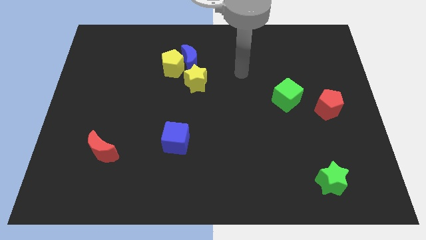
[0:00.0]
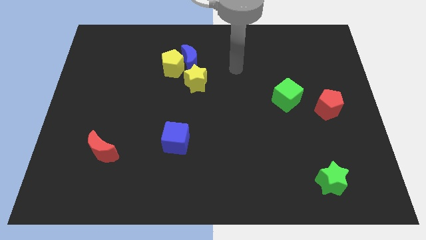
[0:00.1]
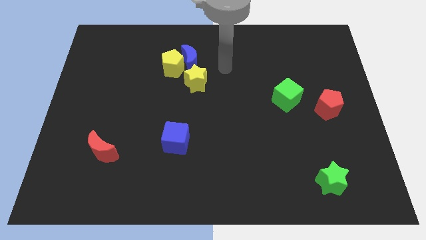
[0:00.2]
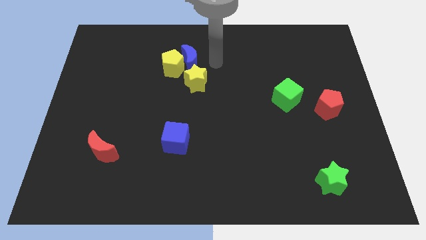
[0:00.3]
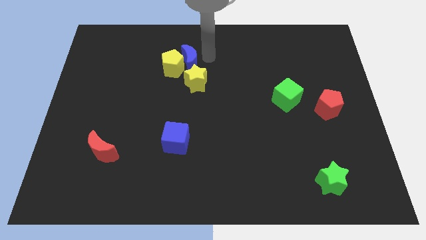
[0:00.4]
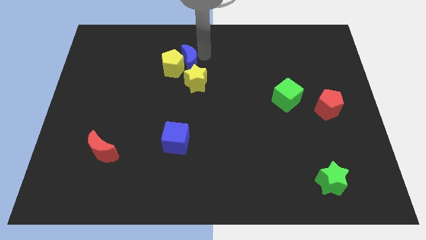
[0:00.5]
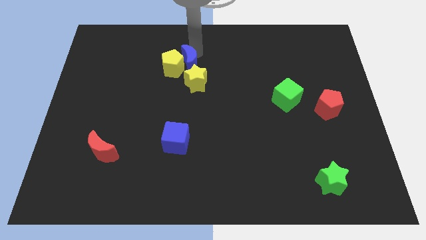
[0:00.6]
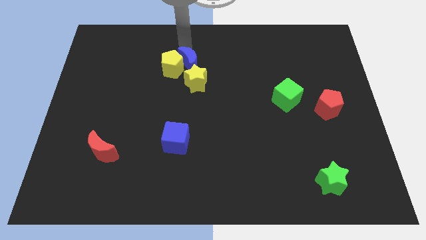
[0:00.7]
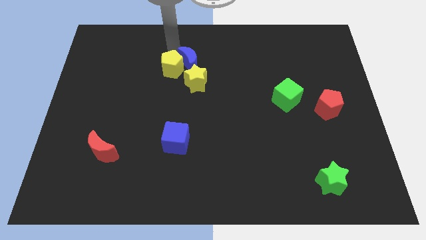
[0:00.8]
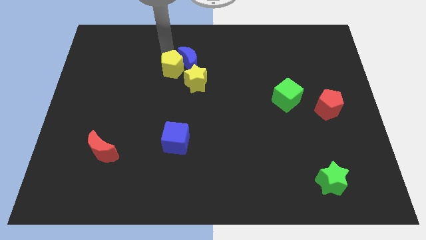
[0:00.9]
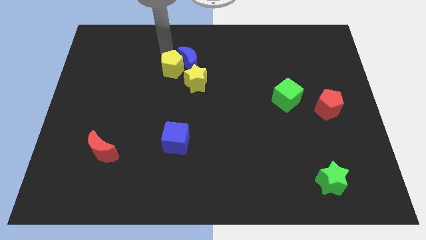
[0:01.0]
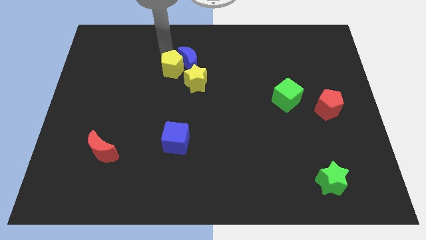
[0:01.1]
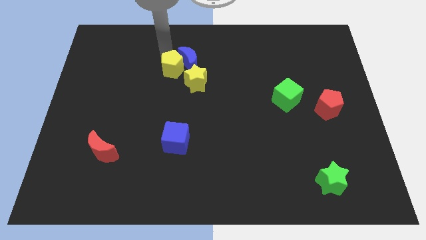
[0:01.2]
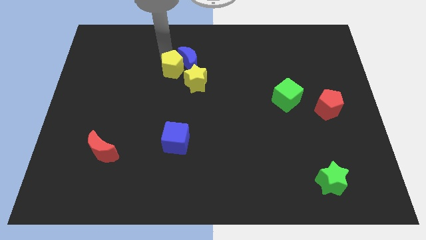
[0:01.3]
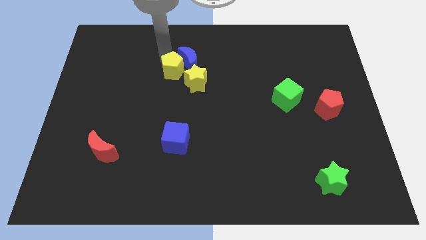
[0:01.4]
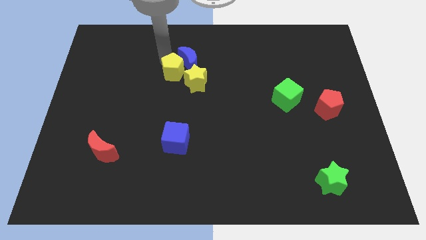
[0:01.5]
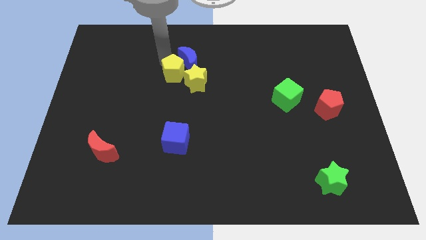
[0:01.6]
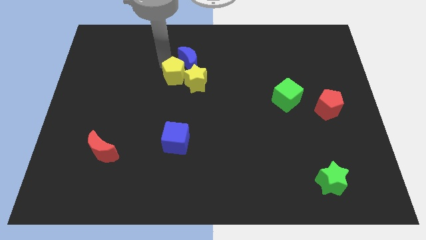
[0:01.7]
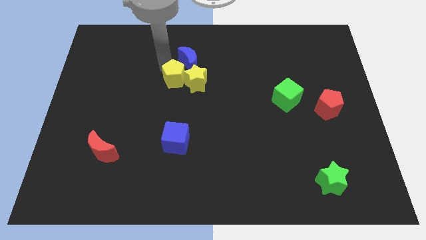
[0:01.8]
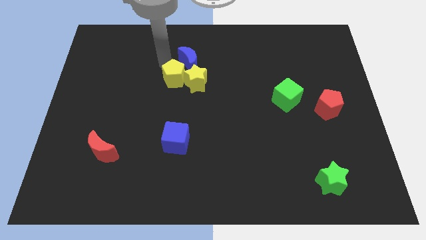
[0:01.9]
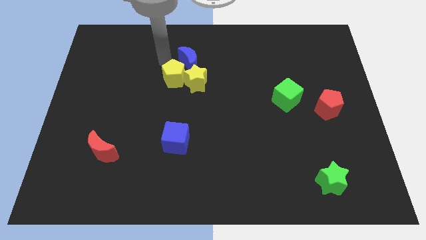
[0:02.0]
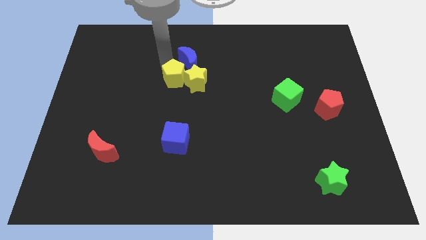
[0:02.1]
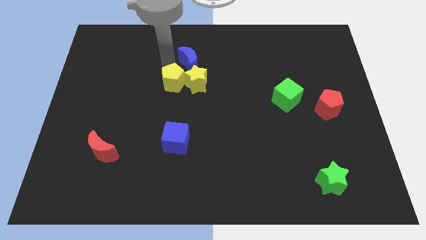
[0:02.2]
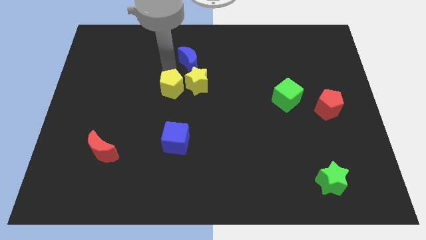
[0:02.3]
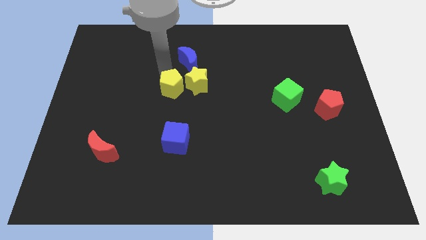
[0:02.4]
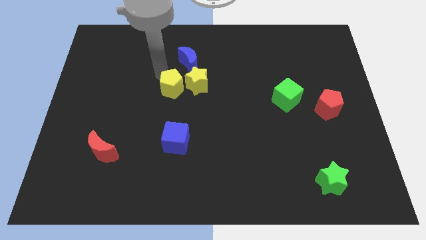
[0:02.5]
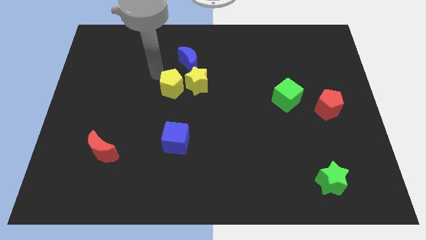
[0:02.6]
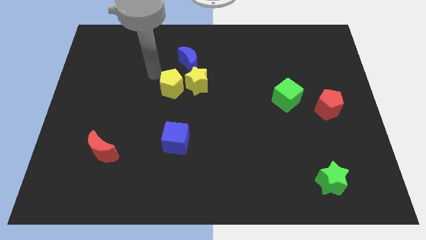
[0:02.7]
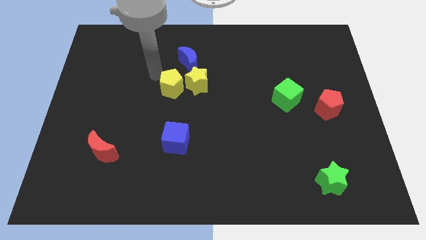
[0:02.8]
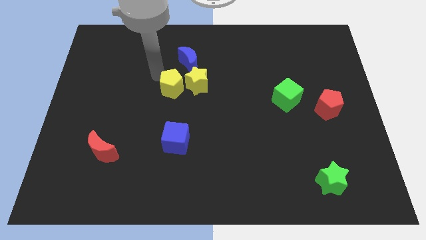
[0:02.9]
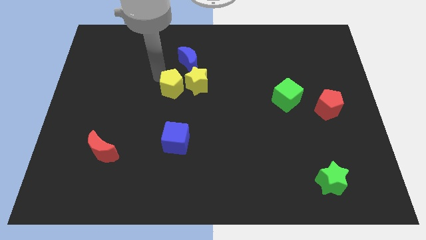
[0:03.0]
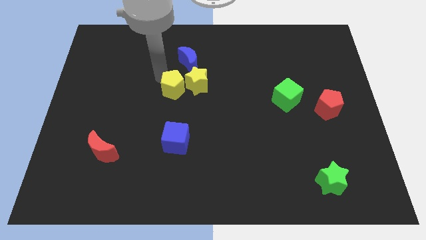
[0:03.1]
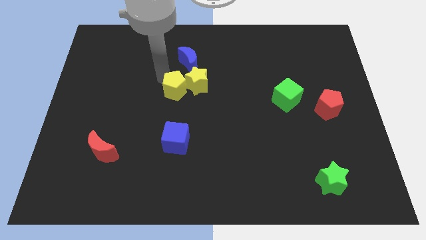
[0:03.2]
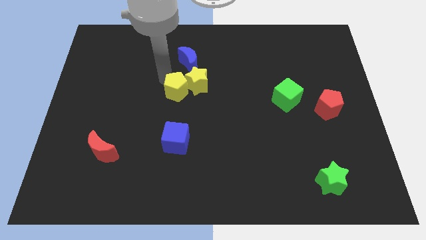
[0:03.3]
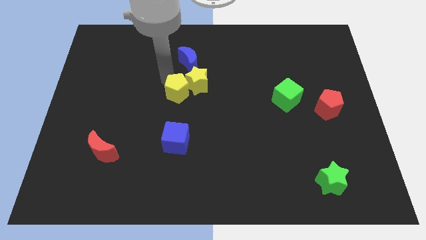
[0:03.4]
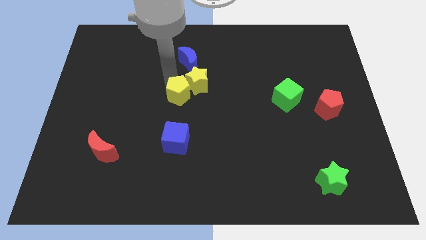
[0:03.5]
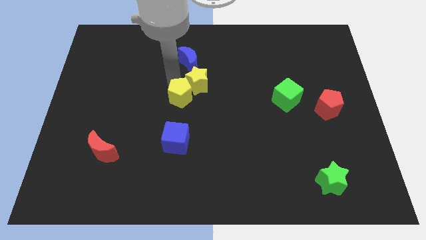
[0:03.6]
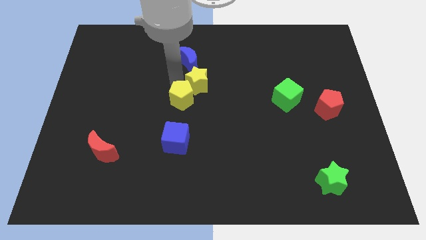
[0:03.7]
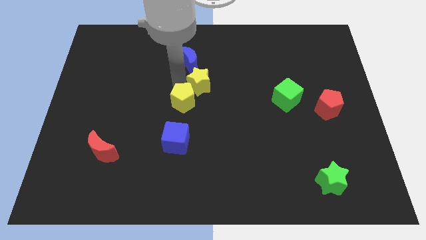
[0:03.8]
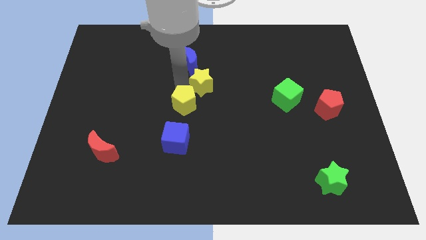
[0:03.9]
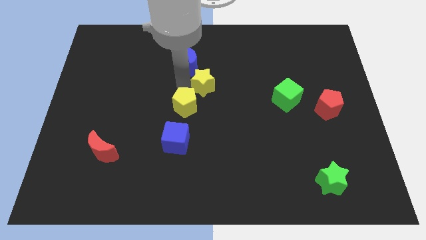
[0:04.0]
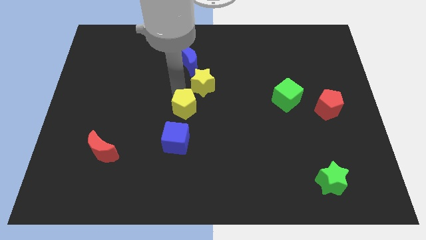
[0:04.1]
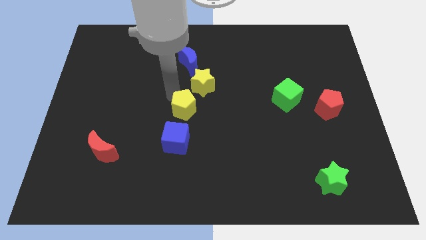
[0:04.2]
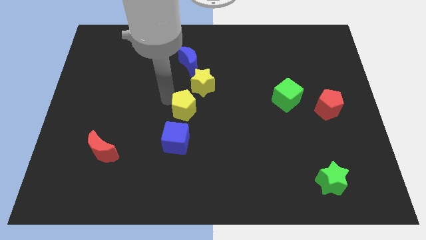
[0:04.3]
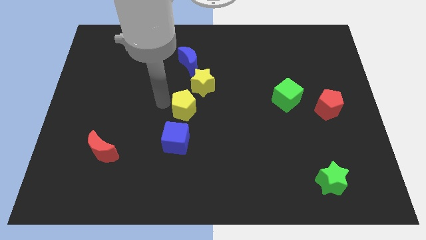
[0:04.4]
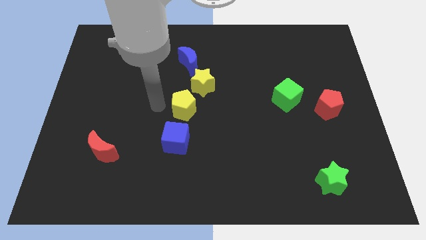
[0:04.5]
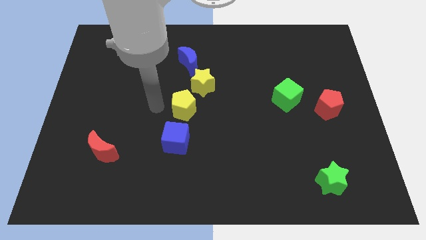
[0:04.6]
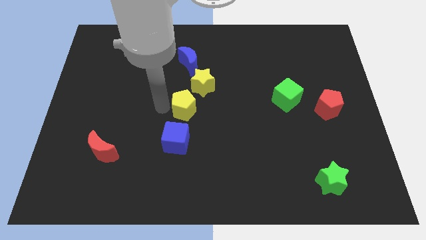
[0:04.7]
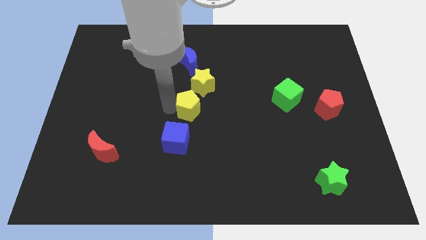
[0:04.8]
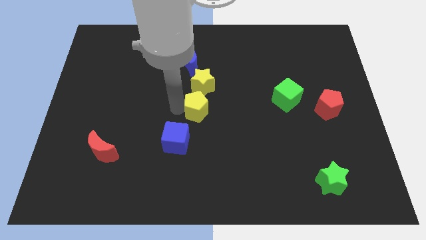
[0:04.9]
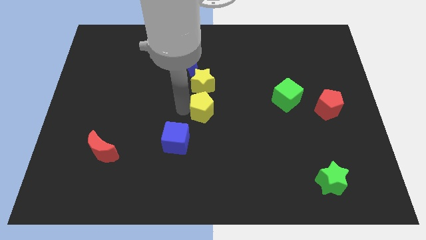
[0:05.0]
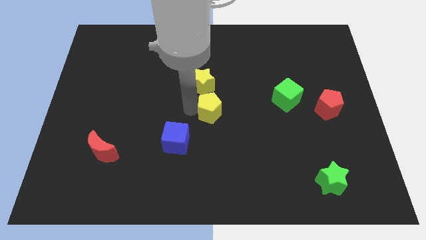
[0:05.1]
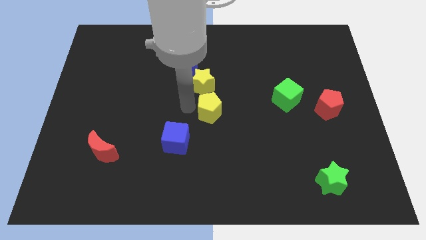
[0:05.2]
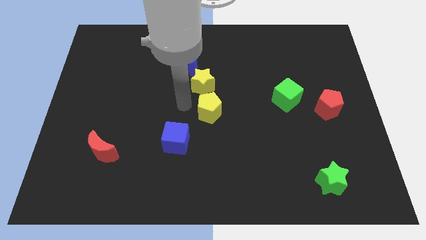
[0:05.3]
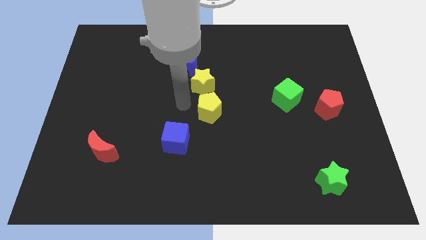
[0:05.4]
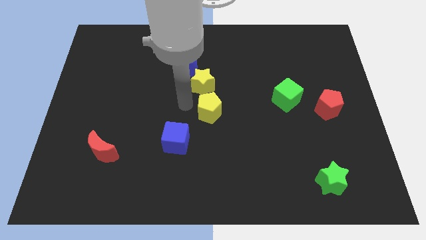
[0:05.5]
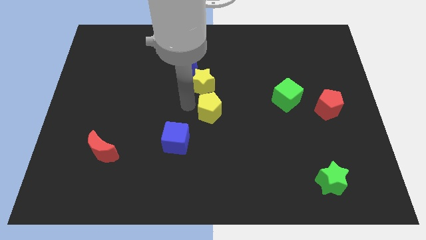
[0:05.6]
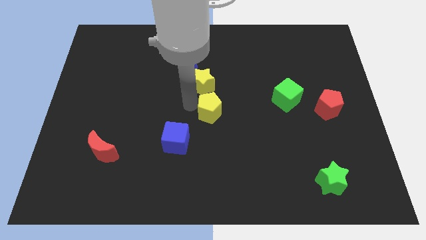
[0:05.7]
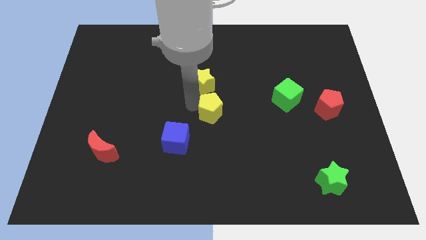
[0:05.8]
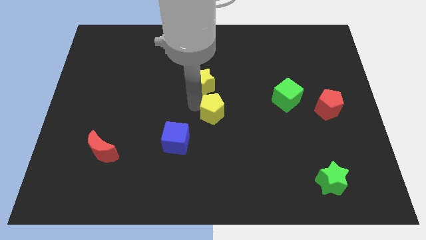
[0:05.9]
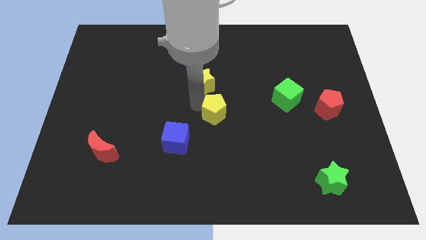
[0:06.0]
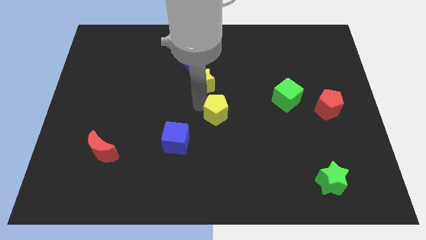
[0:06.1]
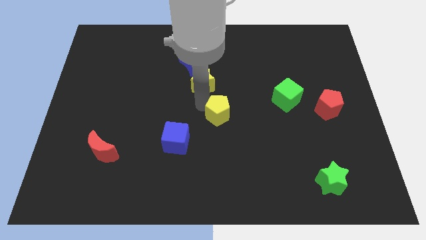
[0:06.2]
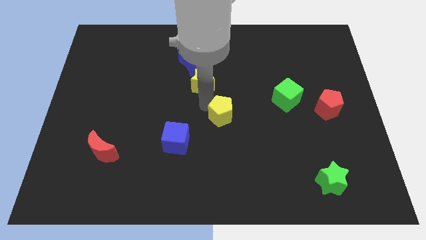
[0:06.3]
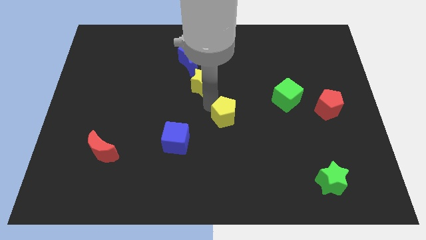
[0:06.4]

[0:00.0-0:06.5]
push the yellow pentagon down and to the right diagonally

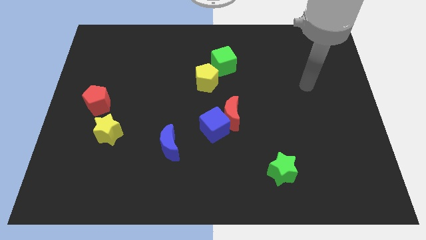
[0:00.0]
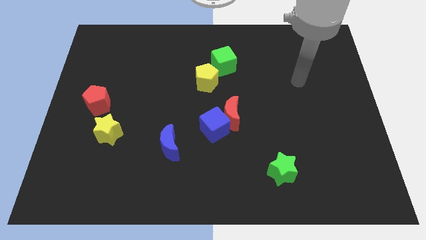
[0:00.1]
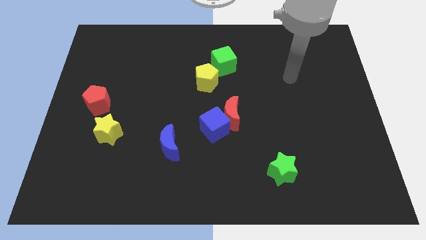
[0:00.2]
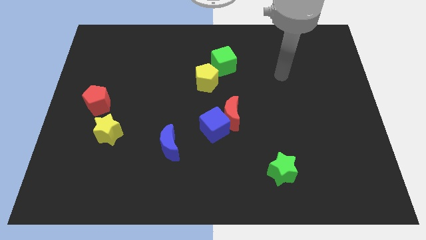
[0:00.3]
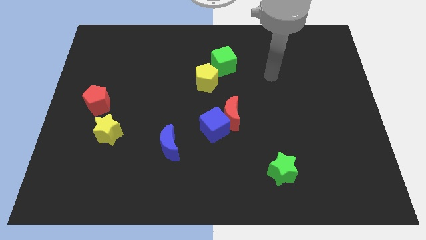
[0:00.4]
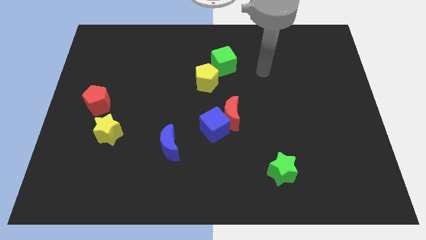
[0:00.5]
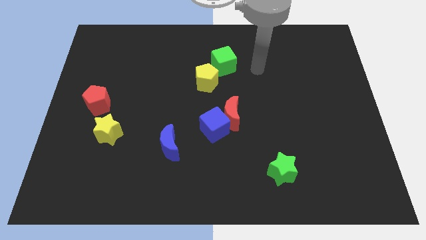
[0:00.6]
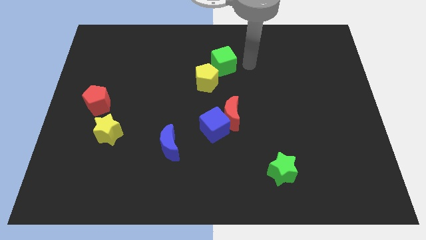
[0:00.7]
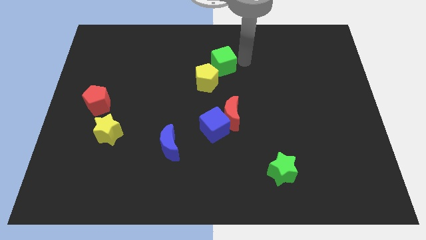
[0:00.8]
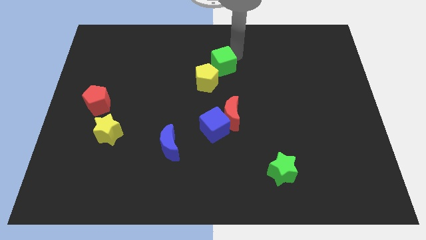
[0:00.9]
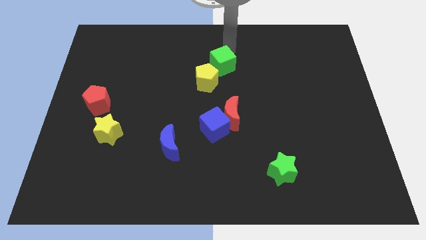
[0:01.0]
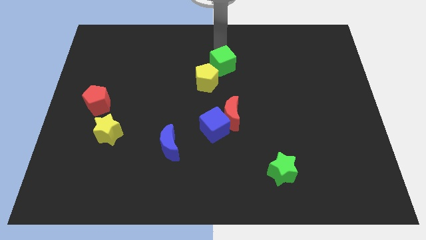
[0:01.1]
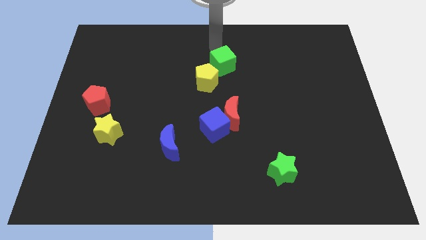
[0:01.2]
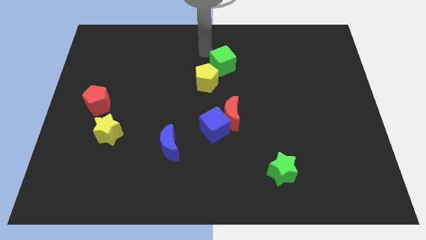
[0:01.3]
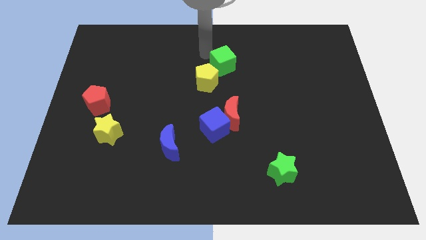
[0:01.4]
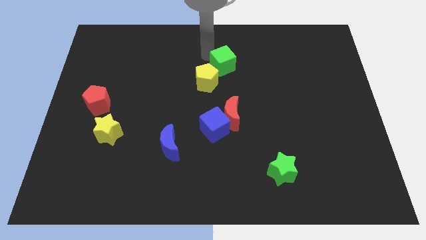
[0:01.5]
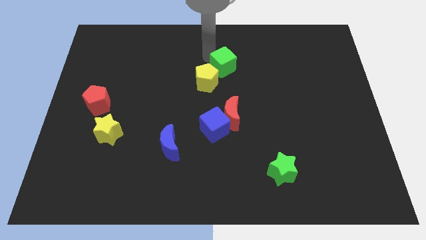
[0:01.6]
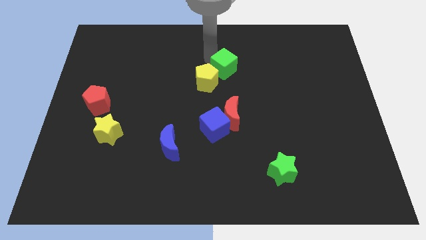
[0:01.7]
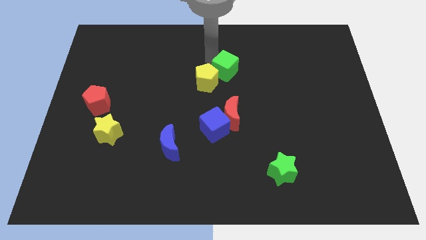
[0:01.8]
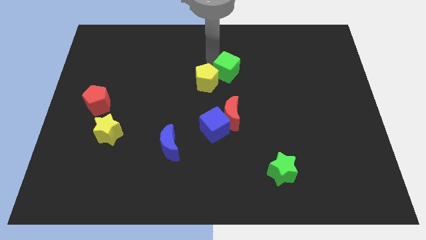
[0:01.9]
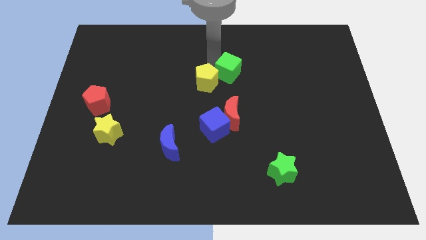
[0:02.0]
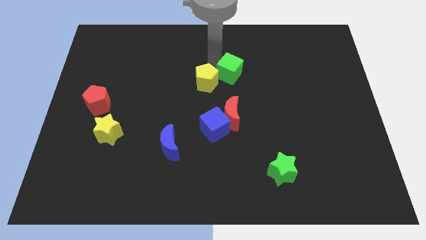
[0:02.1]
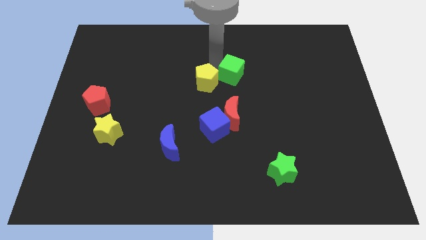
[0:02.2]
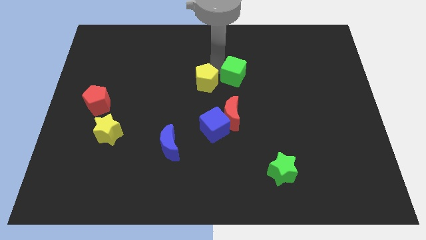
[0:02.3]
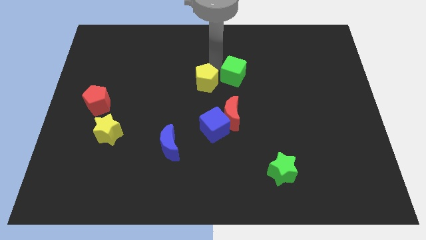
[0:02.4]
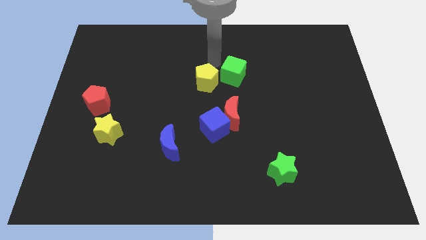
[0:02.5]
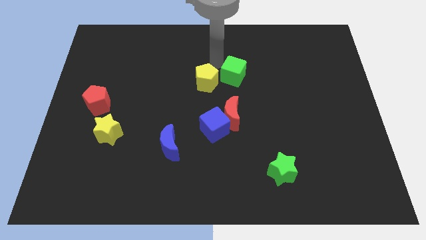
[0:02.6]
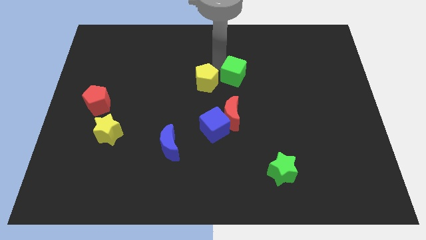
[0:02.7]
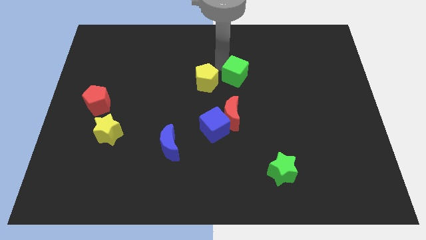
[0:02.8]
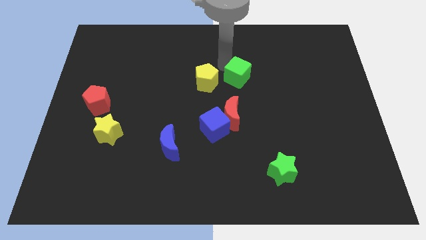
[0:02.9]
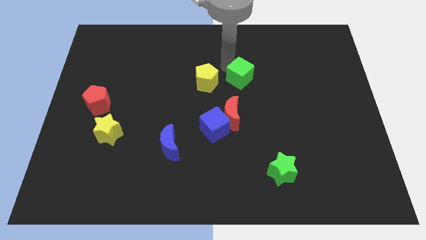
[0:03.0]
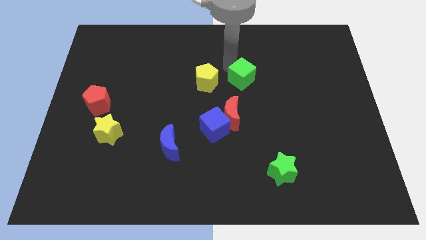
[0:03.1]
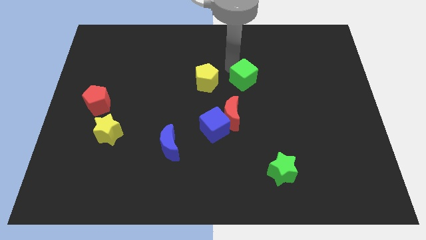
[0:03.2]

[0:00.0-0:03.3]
slide the green cube a little bit down and to the right
